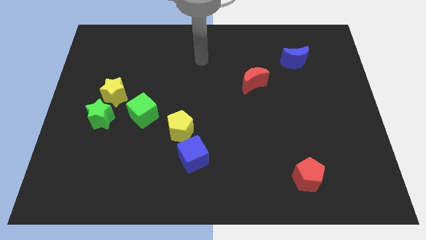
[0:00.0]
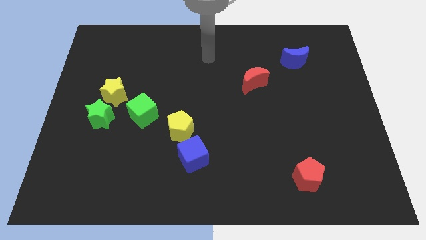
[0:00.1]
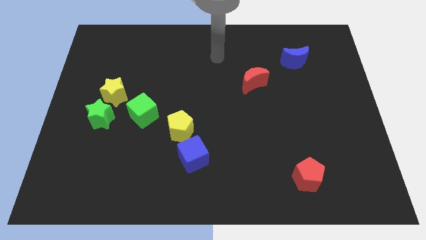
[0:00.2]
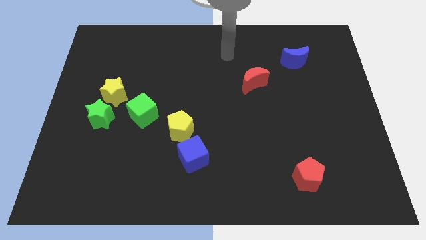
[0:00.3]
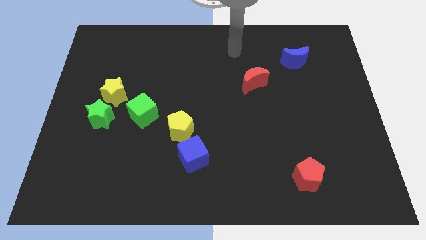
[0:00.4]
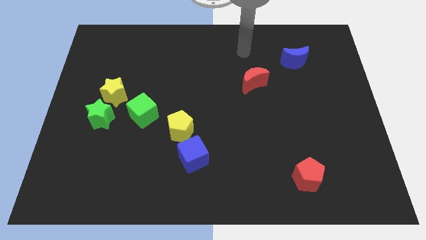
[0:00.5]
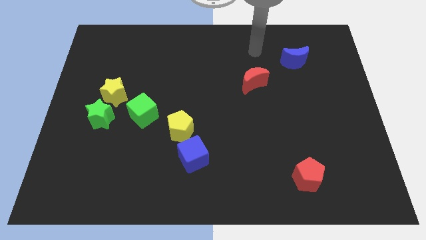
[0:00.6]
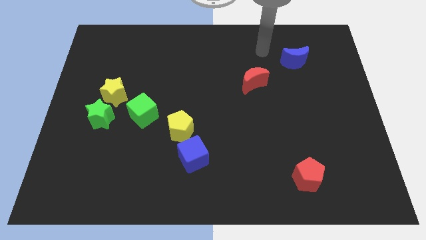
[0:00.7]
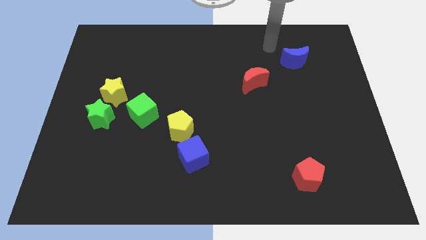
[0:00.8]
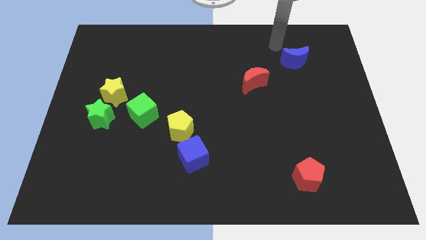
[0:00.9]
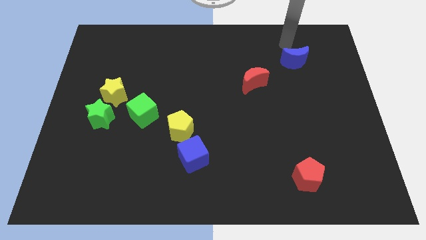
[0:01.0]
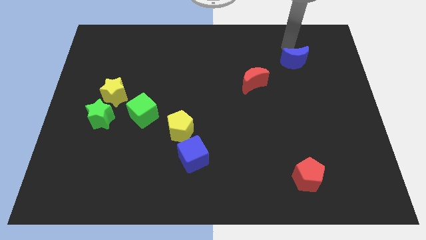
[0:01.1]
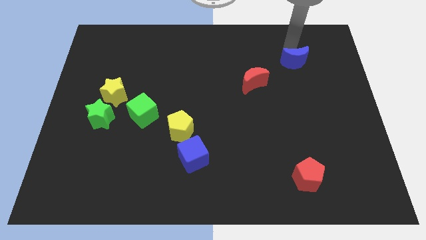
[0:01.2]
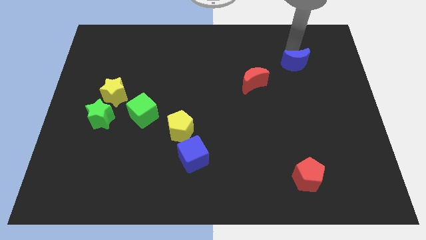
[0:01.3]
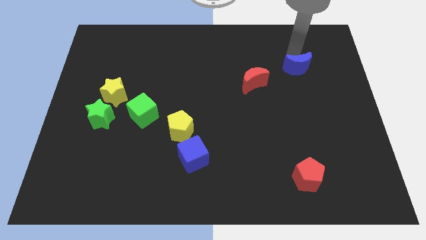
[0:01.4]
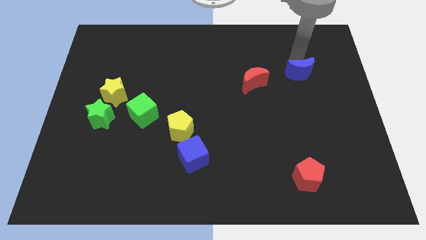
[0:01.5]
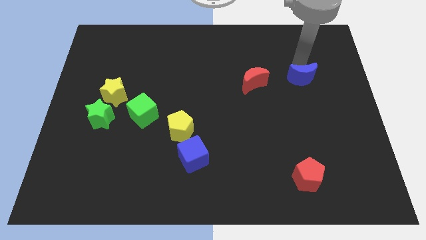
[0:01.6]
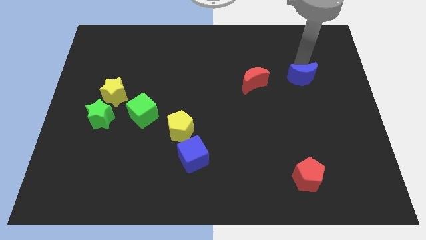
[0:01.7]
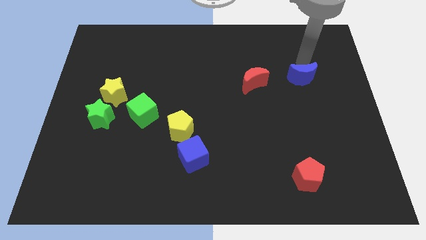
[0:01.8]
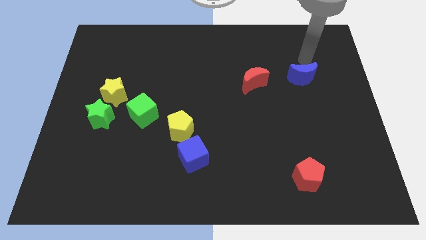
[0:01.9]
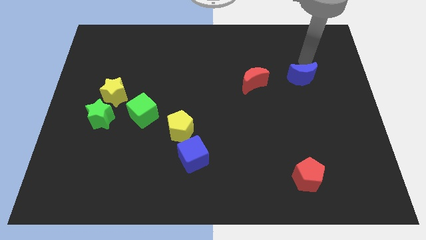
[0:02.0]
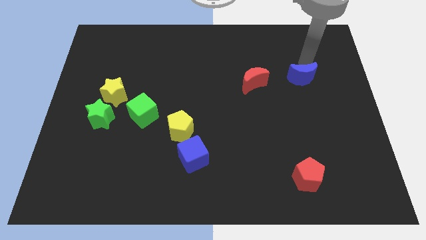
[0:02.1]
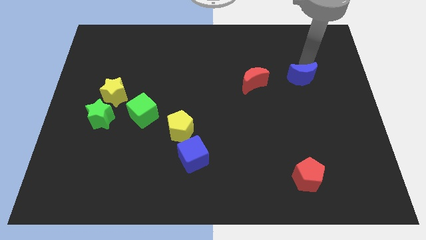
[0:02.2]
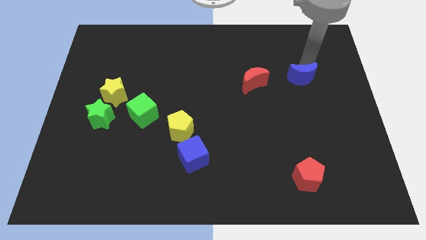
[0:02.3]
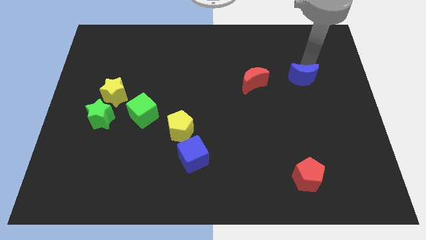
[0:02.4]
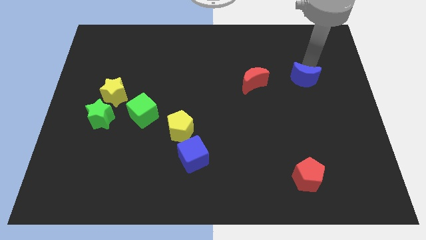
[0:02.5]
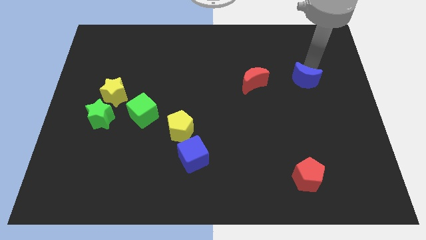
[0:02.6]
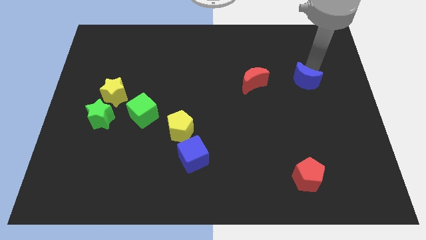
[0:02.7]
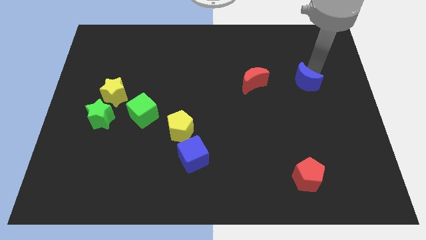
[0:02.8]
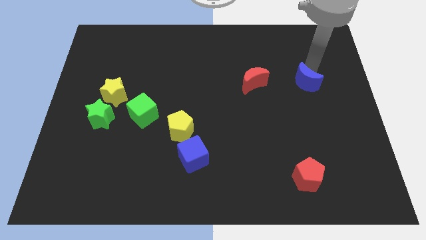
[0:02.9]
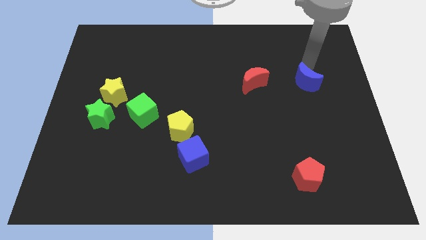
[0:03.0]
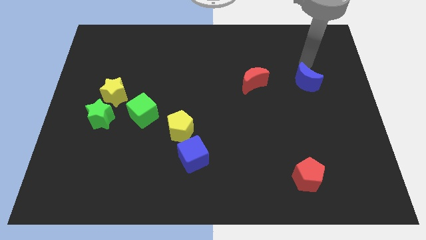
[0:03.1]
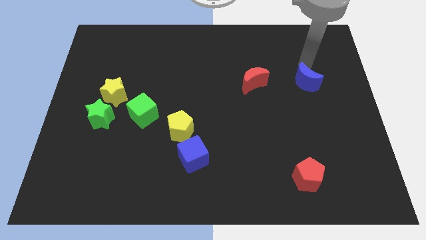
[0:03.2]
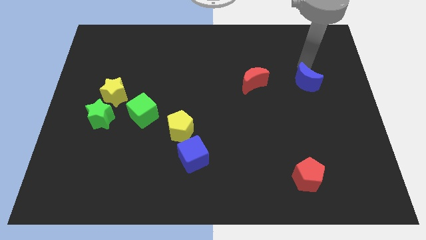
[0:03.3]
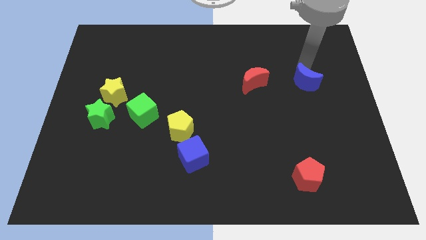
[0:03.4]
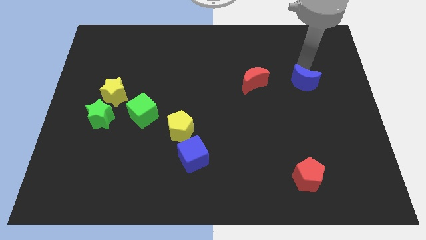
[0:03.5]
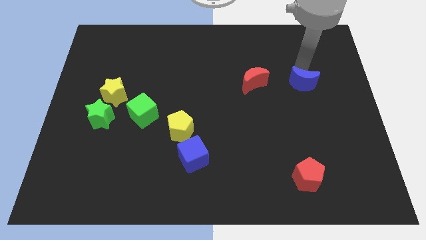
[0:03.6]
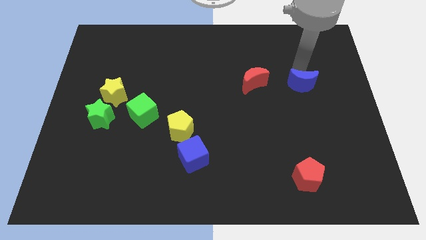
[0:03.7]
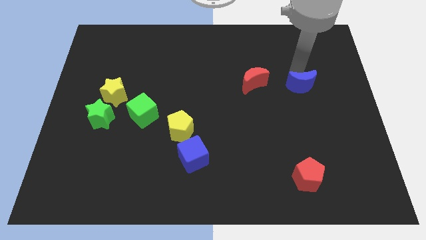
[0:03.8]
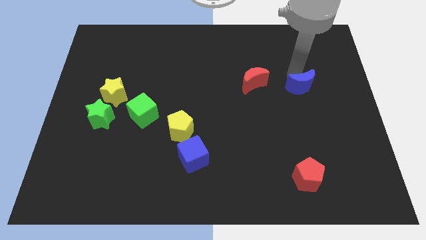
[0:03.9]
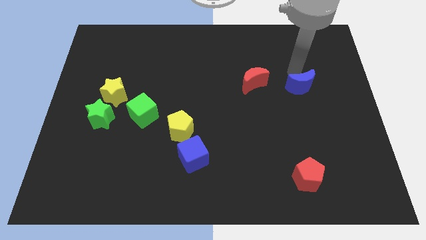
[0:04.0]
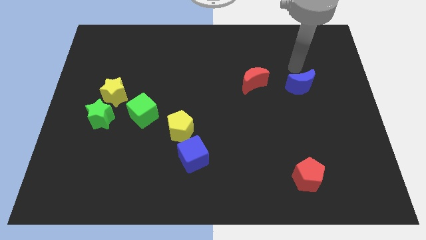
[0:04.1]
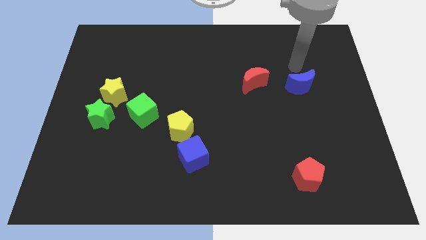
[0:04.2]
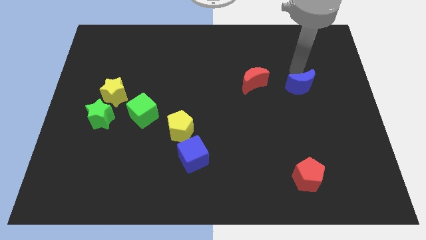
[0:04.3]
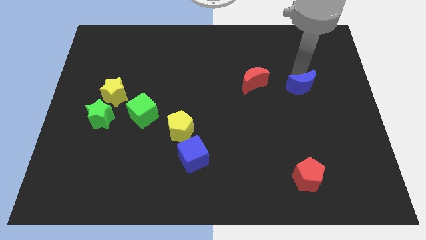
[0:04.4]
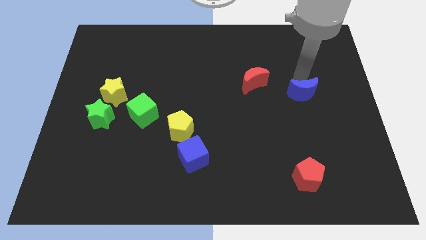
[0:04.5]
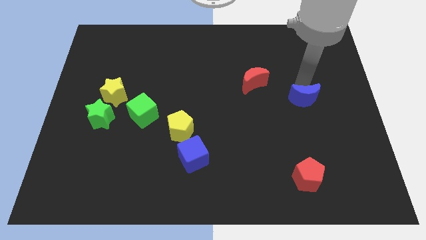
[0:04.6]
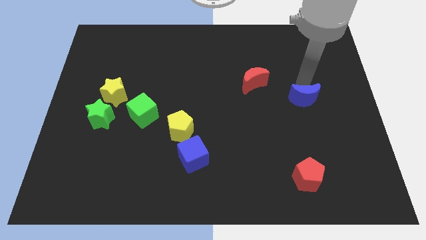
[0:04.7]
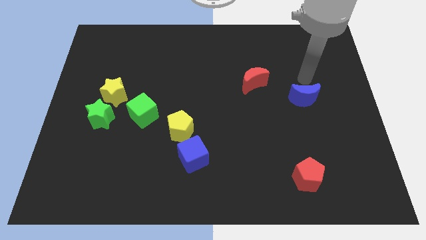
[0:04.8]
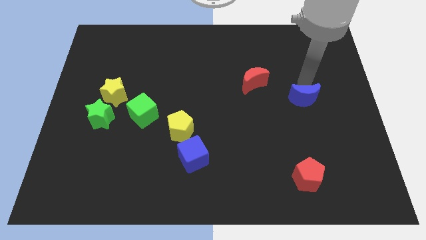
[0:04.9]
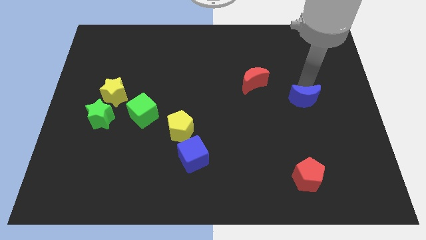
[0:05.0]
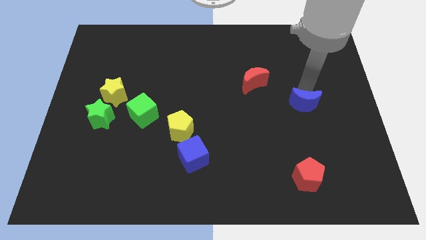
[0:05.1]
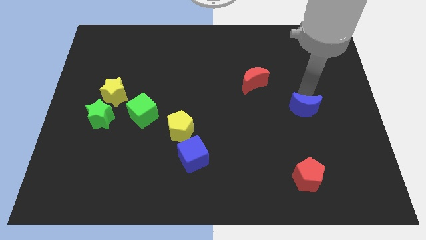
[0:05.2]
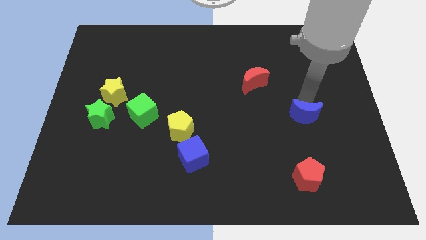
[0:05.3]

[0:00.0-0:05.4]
slide the blue moon above the red pentagon

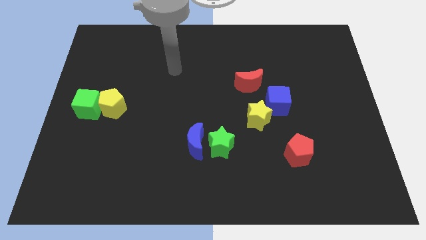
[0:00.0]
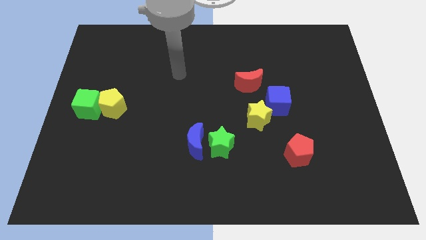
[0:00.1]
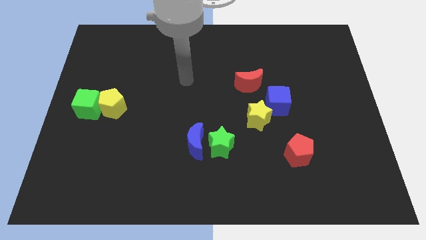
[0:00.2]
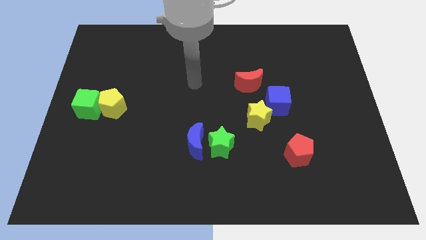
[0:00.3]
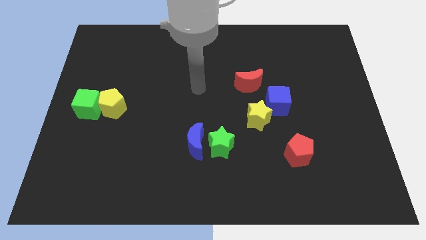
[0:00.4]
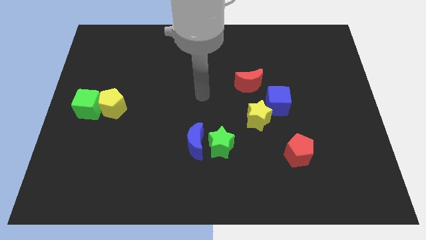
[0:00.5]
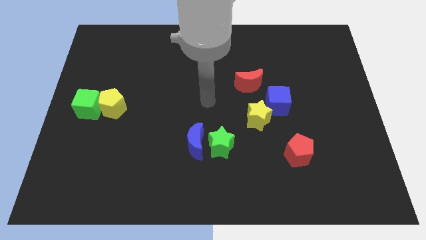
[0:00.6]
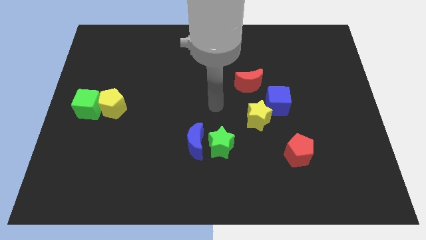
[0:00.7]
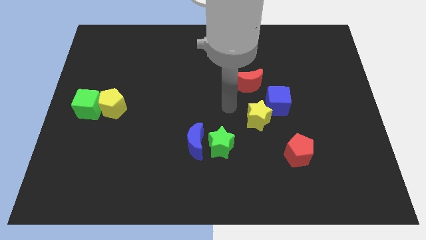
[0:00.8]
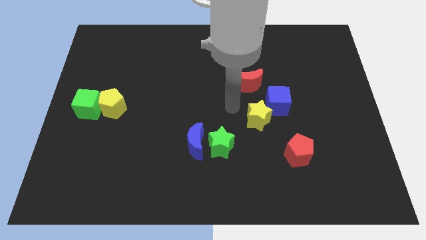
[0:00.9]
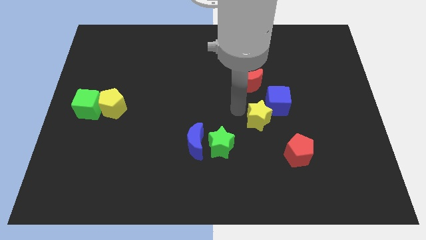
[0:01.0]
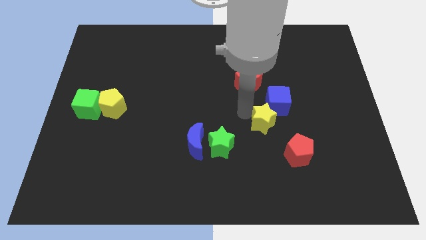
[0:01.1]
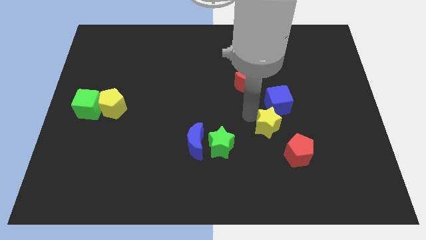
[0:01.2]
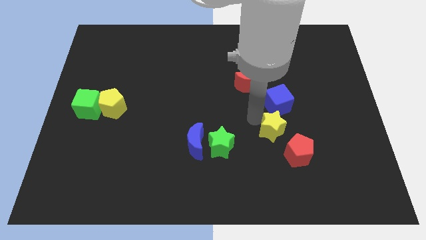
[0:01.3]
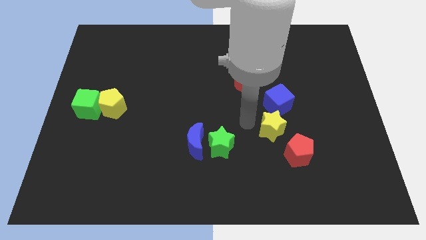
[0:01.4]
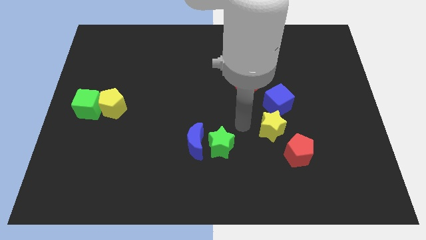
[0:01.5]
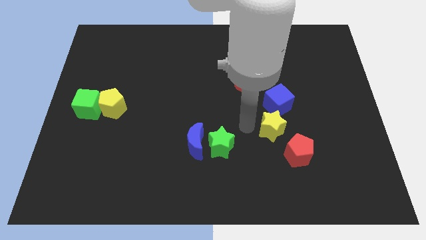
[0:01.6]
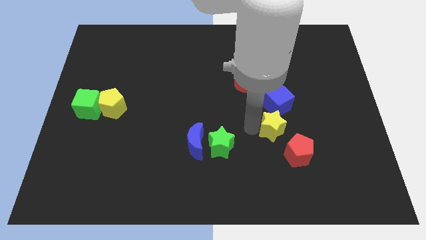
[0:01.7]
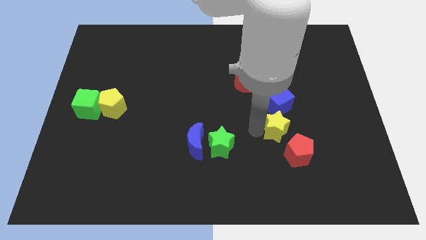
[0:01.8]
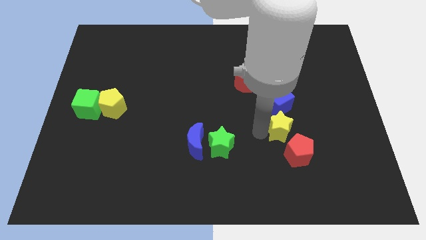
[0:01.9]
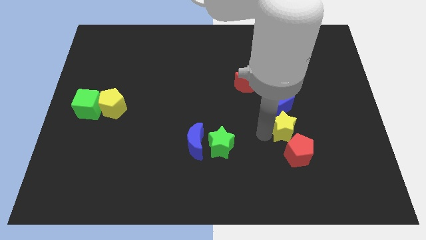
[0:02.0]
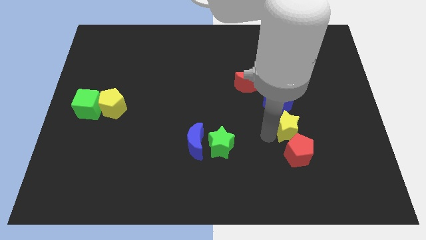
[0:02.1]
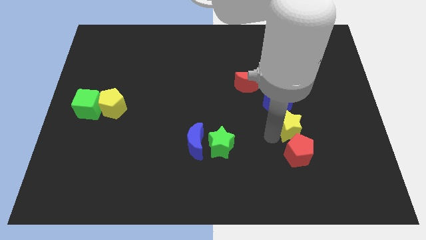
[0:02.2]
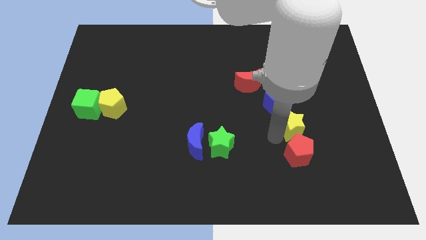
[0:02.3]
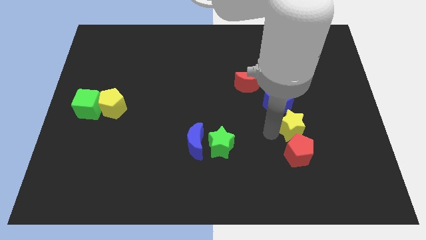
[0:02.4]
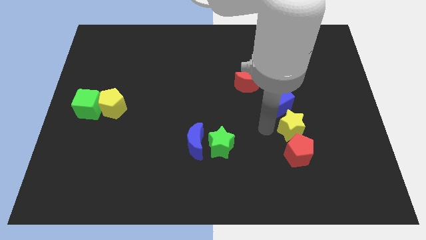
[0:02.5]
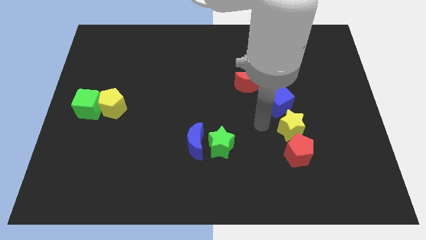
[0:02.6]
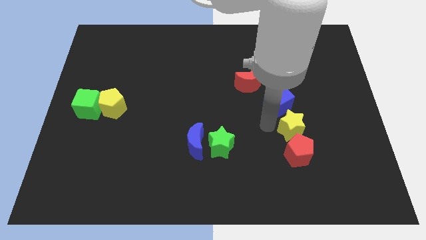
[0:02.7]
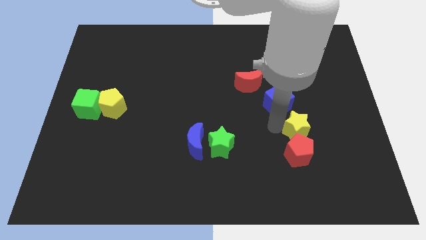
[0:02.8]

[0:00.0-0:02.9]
put the yellow star to the top right side of the red pentagon
